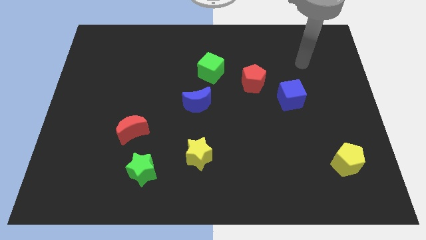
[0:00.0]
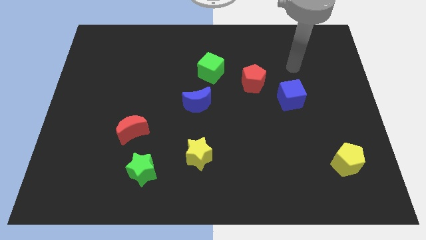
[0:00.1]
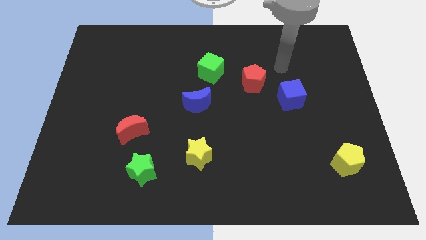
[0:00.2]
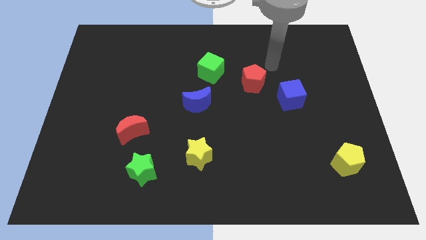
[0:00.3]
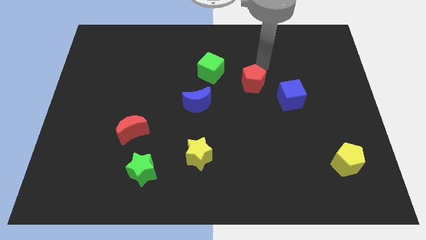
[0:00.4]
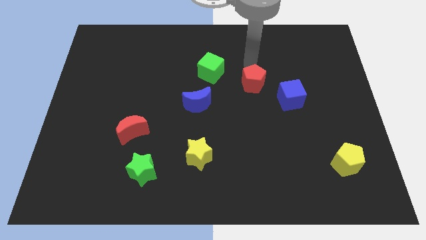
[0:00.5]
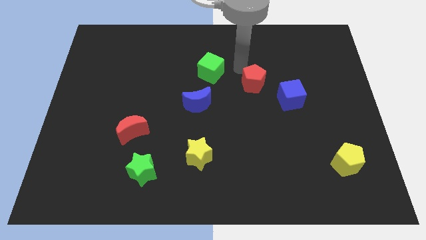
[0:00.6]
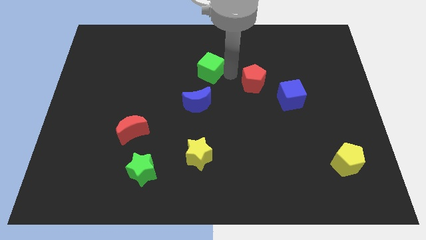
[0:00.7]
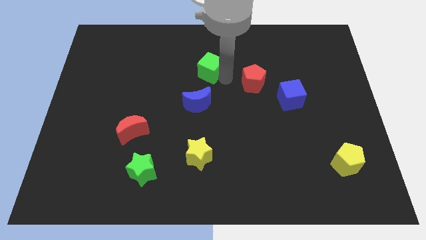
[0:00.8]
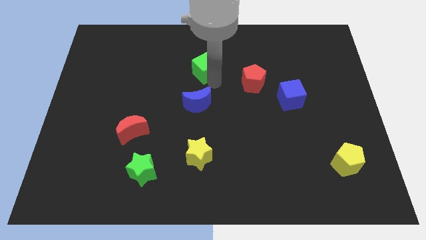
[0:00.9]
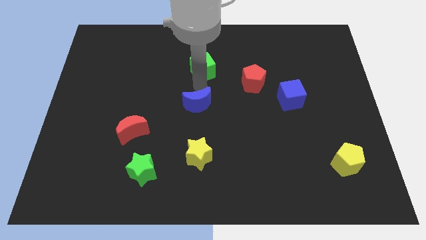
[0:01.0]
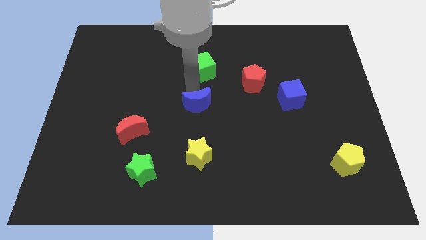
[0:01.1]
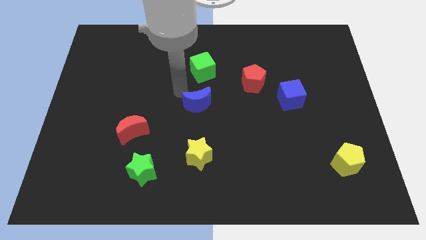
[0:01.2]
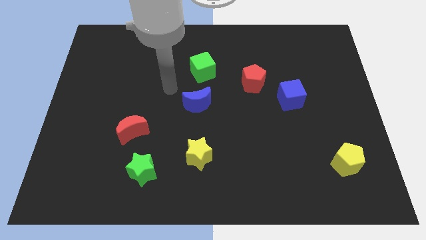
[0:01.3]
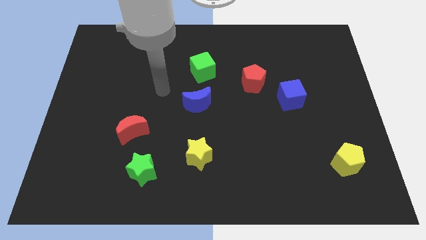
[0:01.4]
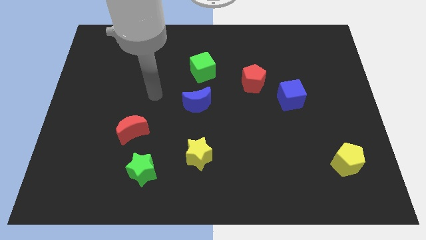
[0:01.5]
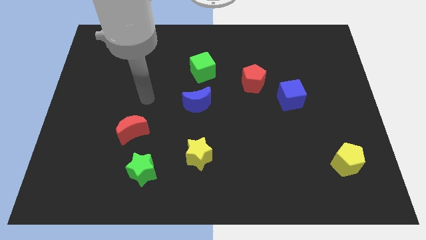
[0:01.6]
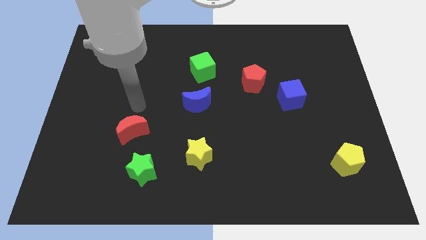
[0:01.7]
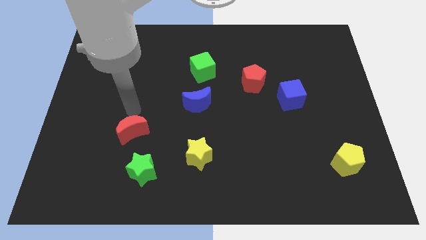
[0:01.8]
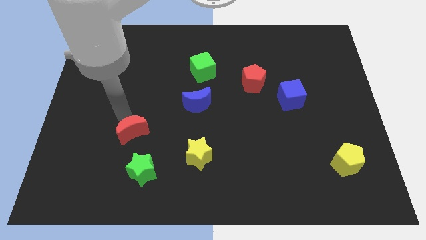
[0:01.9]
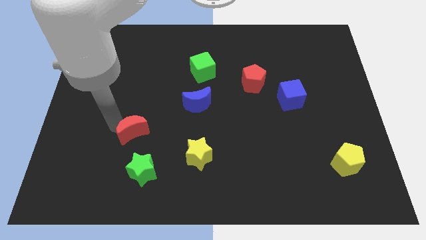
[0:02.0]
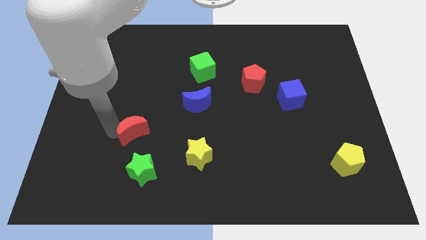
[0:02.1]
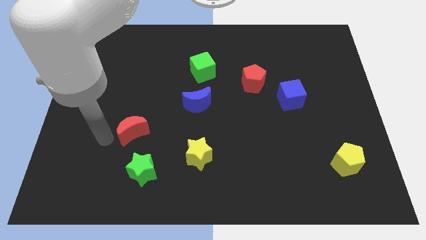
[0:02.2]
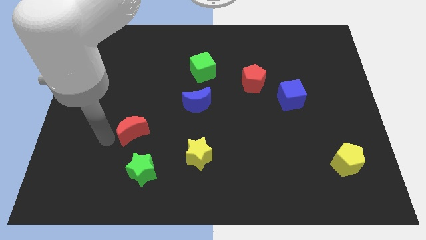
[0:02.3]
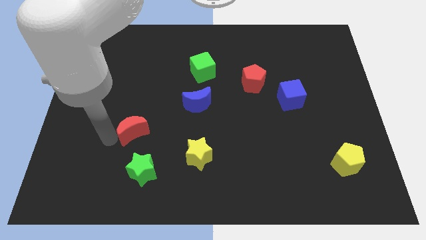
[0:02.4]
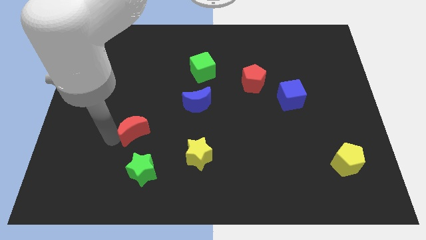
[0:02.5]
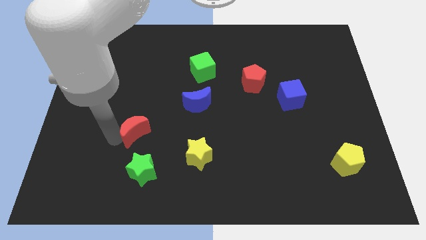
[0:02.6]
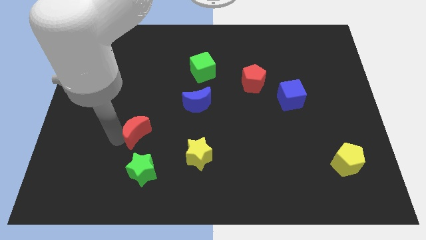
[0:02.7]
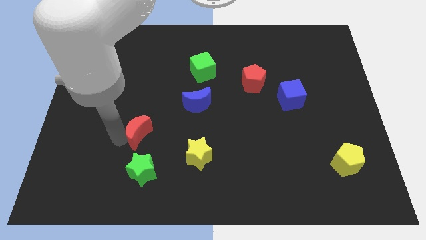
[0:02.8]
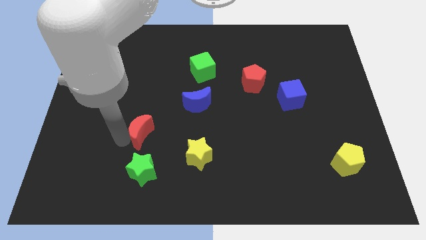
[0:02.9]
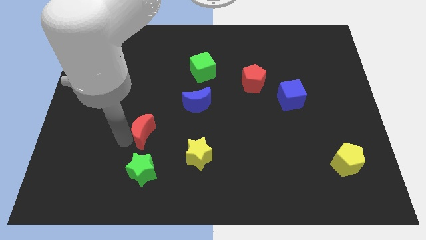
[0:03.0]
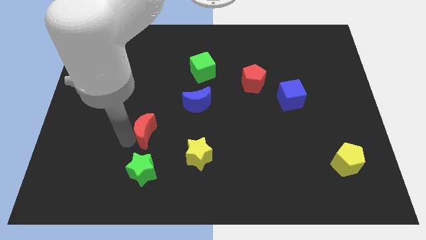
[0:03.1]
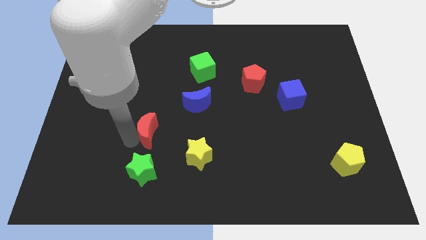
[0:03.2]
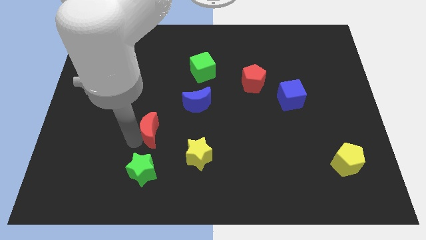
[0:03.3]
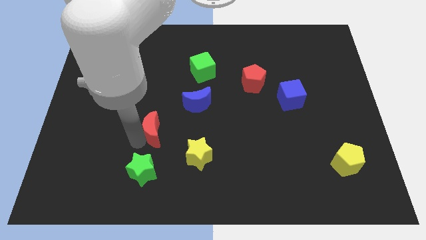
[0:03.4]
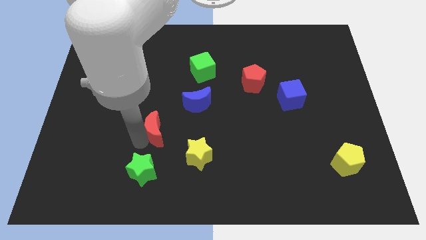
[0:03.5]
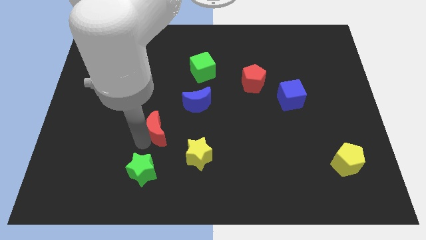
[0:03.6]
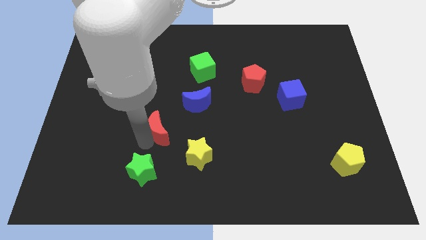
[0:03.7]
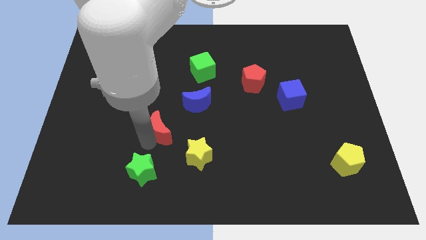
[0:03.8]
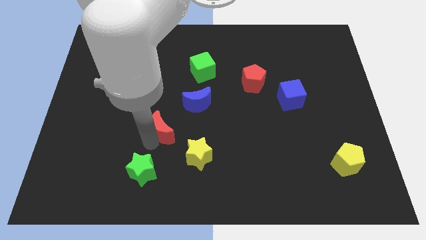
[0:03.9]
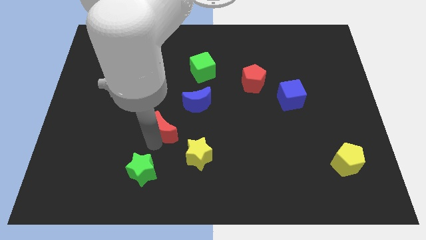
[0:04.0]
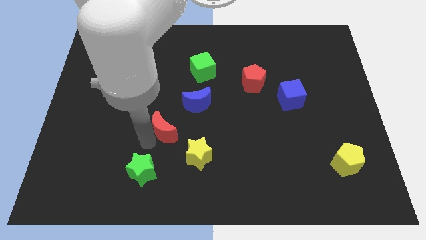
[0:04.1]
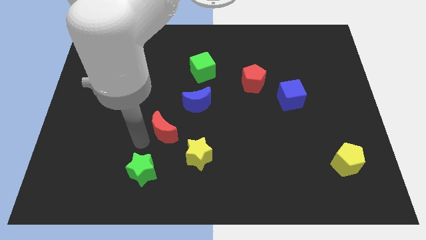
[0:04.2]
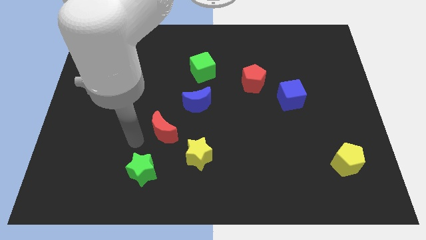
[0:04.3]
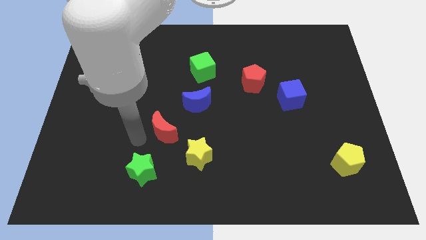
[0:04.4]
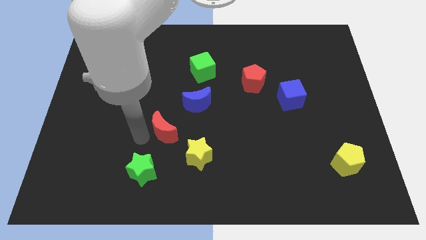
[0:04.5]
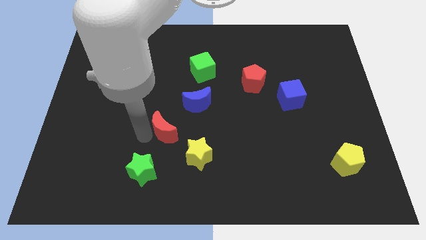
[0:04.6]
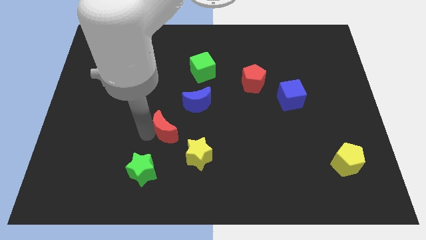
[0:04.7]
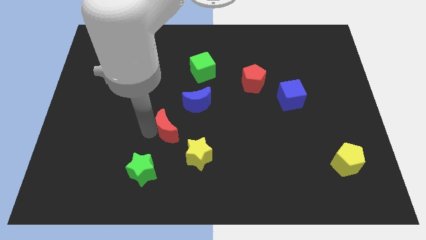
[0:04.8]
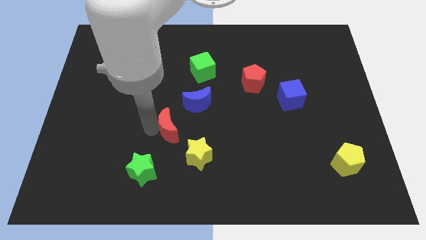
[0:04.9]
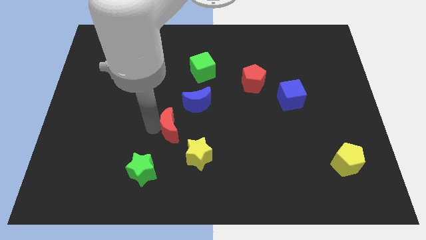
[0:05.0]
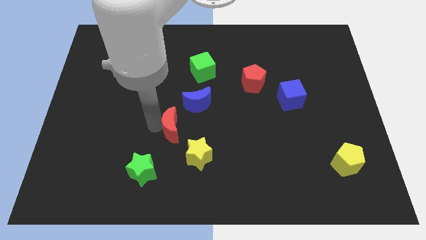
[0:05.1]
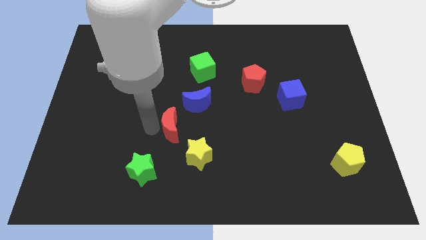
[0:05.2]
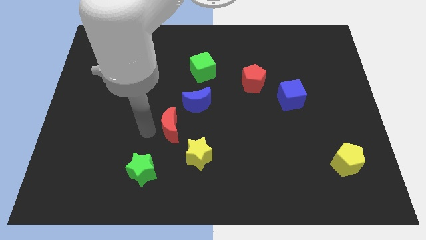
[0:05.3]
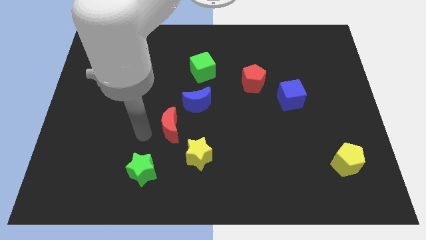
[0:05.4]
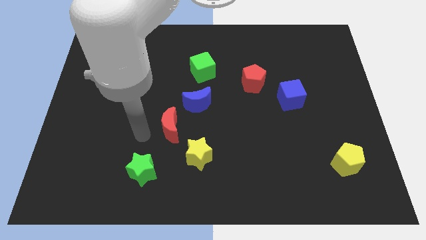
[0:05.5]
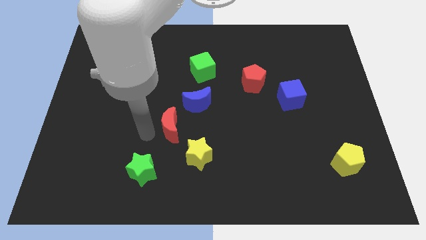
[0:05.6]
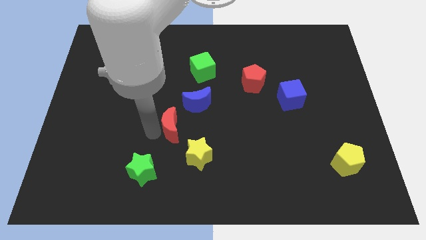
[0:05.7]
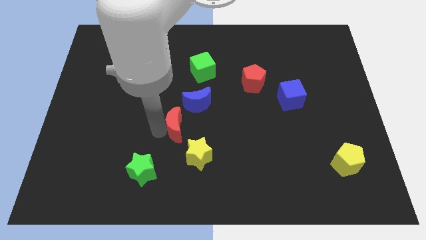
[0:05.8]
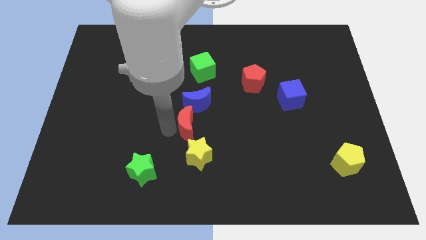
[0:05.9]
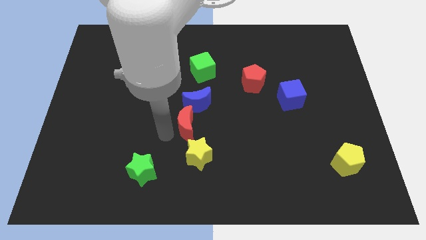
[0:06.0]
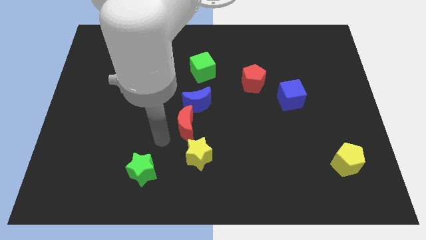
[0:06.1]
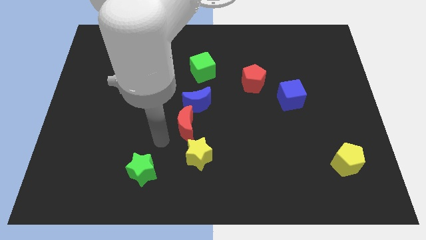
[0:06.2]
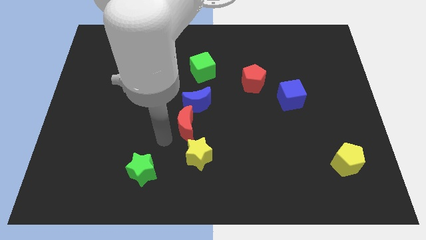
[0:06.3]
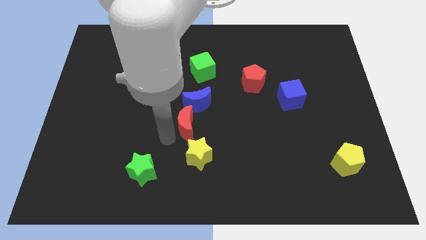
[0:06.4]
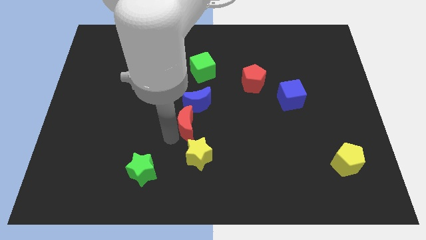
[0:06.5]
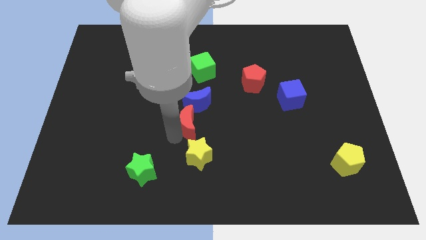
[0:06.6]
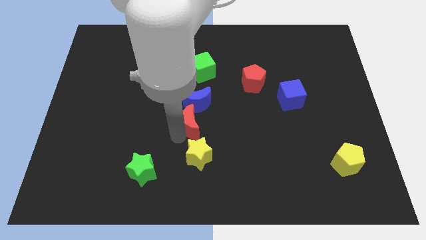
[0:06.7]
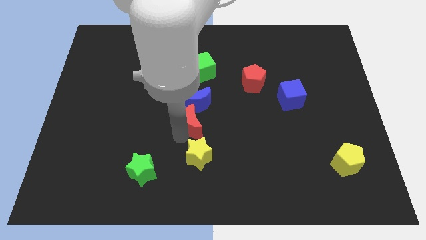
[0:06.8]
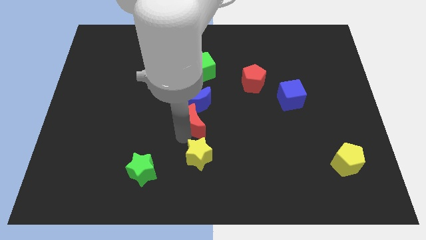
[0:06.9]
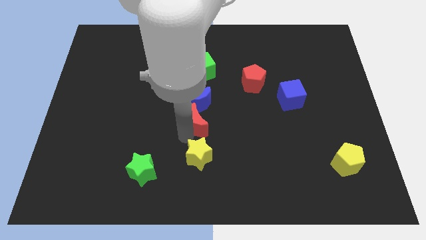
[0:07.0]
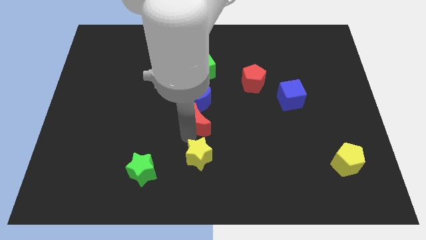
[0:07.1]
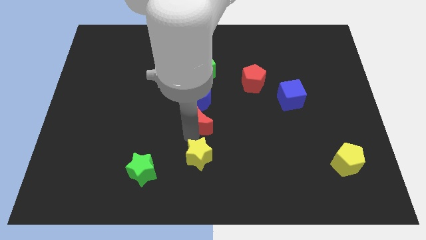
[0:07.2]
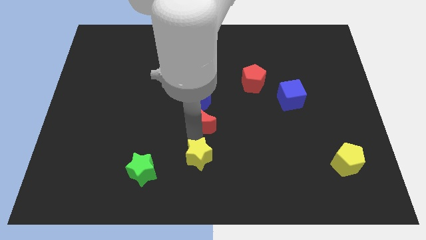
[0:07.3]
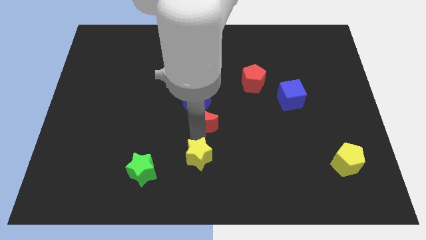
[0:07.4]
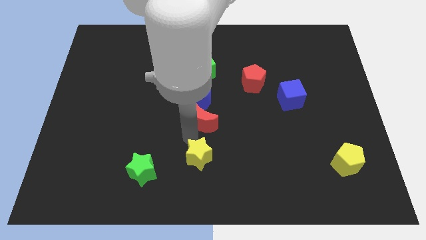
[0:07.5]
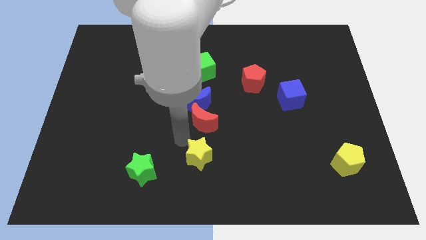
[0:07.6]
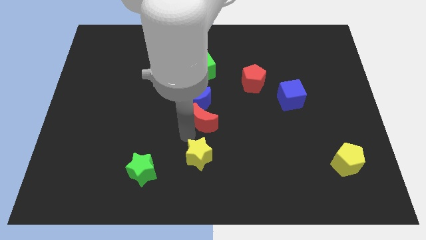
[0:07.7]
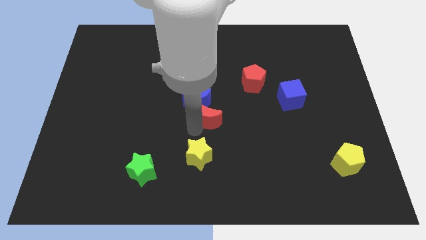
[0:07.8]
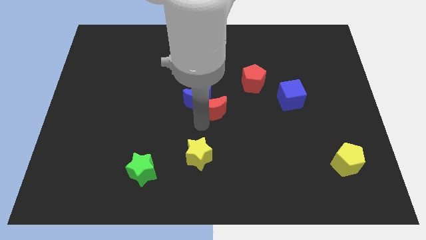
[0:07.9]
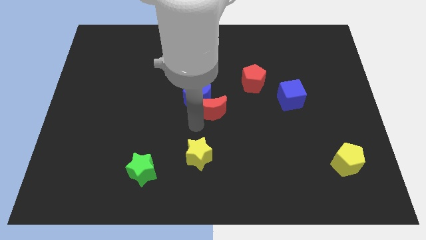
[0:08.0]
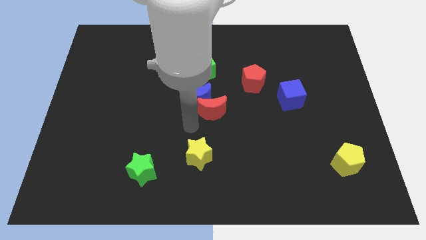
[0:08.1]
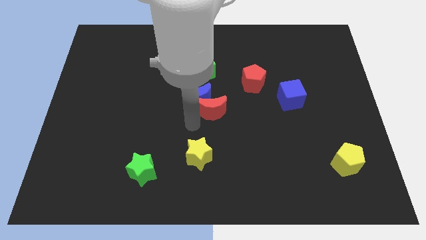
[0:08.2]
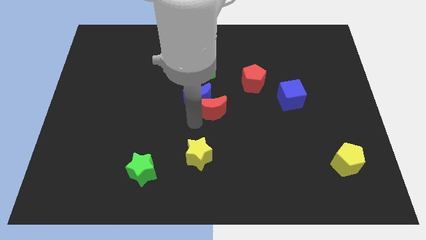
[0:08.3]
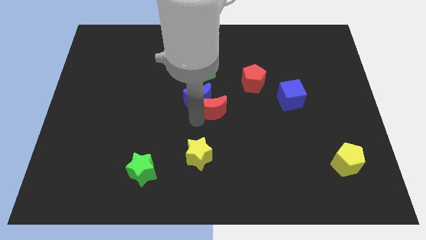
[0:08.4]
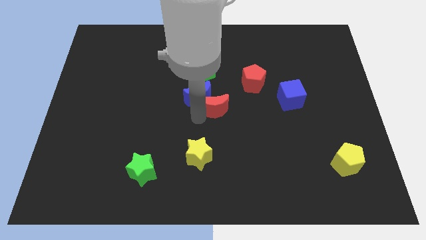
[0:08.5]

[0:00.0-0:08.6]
move the red moon diagonally down and to the left of the red pentagon
